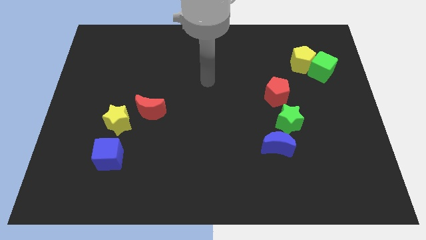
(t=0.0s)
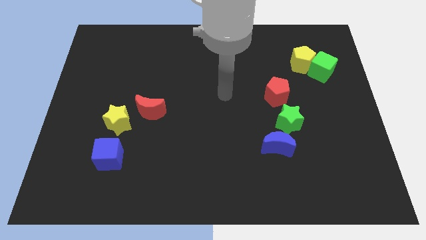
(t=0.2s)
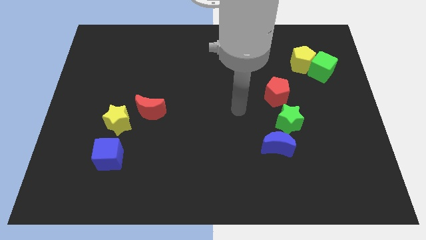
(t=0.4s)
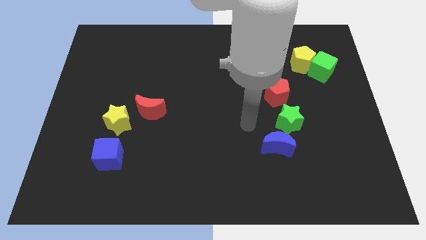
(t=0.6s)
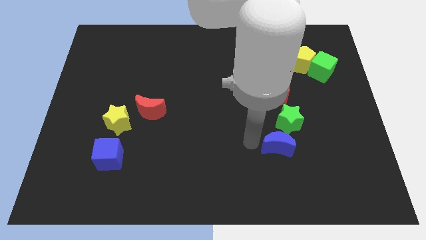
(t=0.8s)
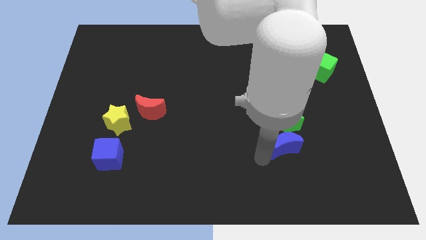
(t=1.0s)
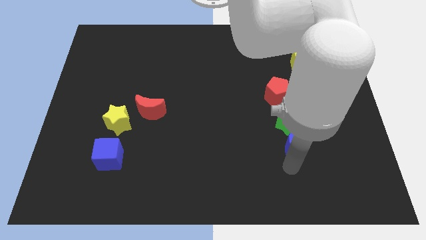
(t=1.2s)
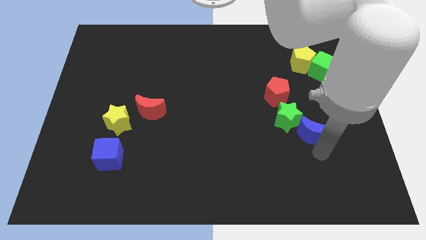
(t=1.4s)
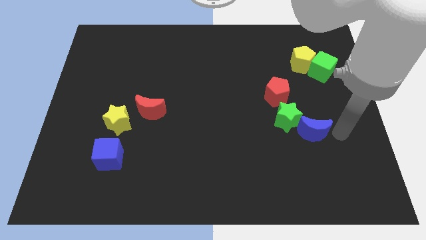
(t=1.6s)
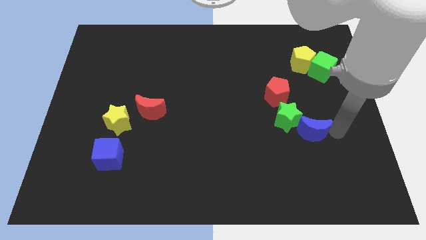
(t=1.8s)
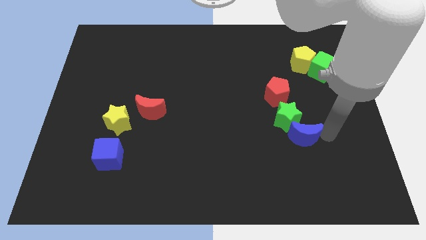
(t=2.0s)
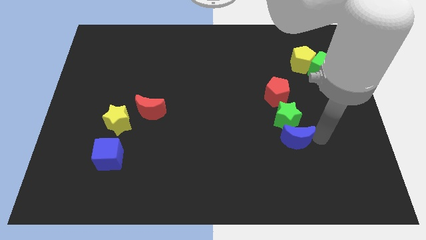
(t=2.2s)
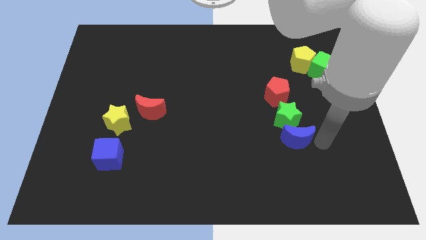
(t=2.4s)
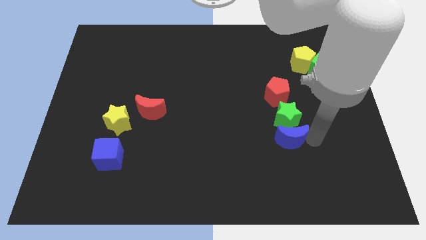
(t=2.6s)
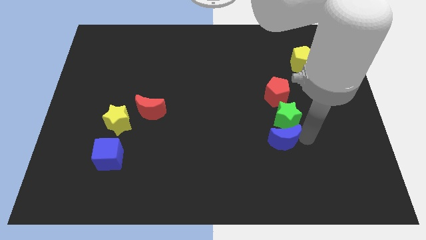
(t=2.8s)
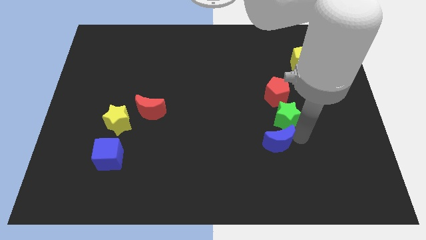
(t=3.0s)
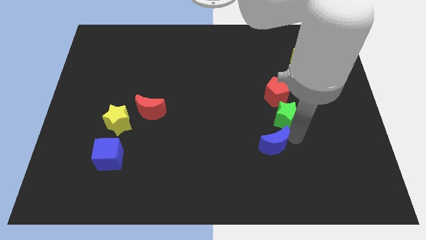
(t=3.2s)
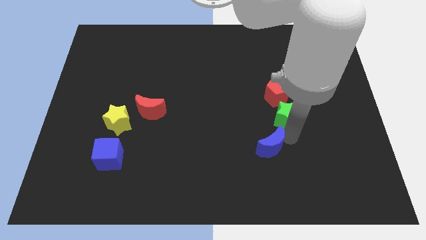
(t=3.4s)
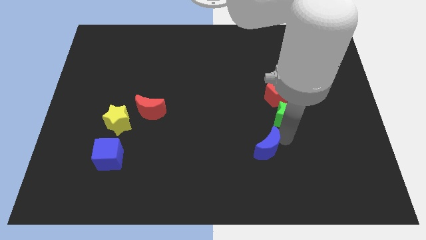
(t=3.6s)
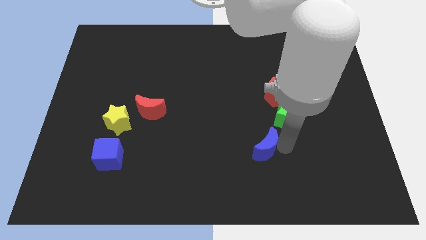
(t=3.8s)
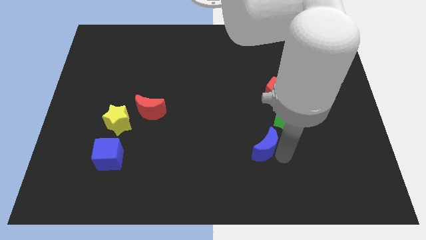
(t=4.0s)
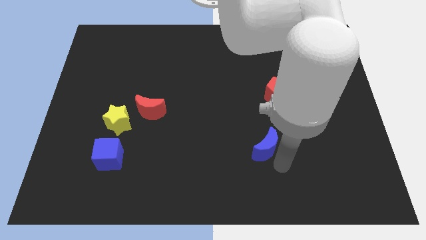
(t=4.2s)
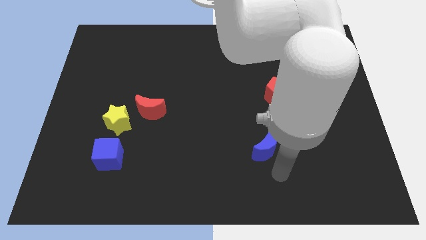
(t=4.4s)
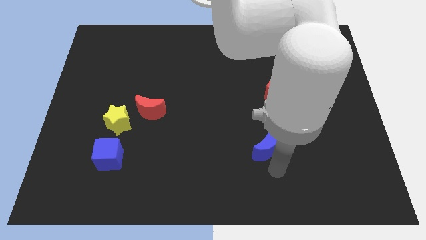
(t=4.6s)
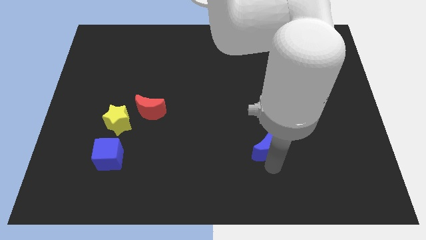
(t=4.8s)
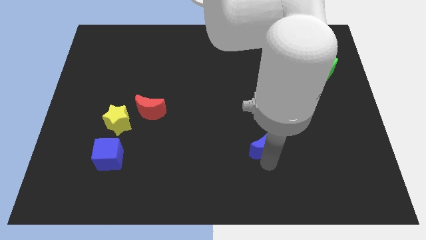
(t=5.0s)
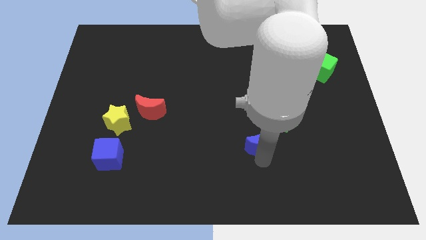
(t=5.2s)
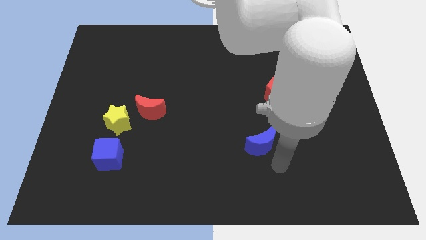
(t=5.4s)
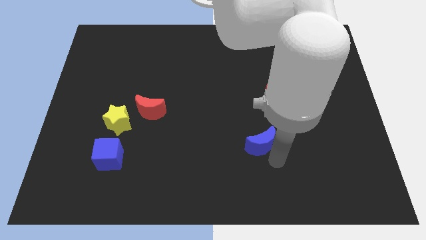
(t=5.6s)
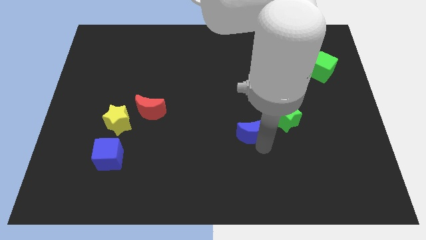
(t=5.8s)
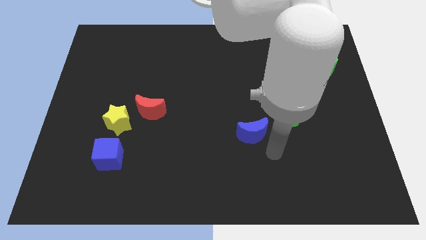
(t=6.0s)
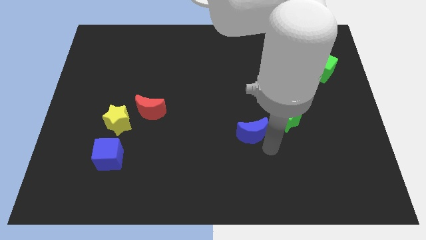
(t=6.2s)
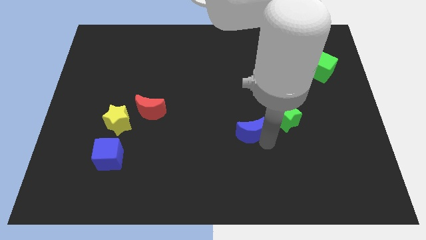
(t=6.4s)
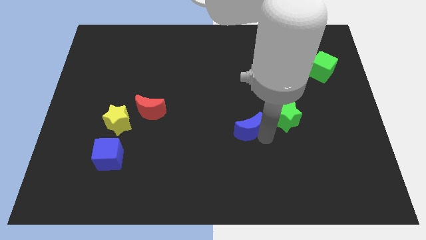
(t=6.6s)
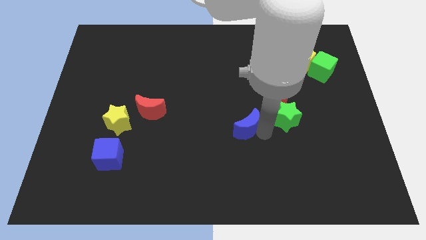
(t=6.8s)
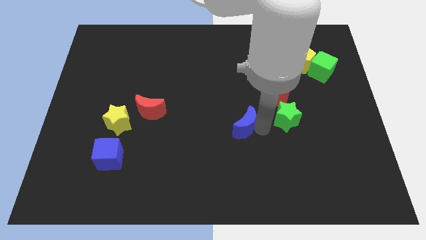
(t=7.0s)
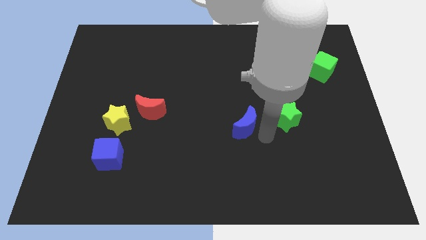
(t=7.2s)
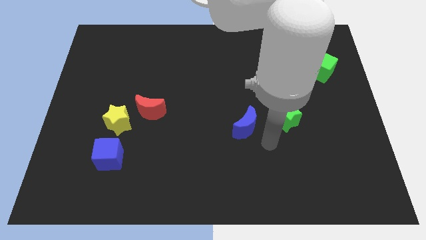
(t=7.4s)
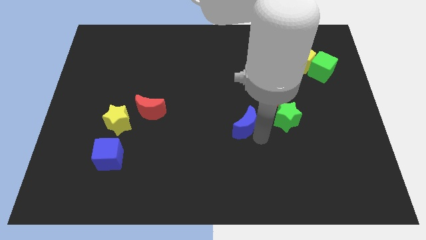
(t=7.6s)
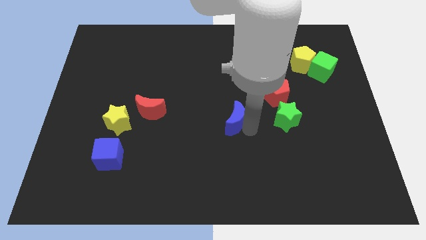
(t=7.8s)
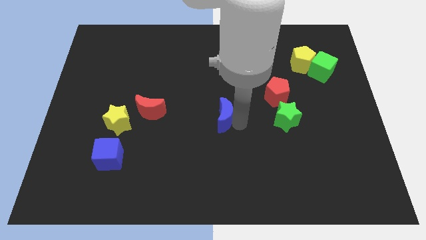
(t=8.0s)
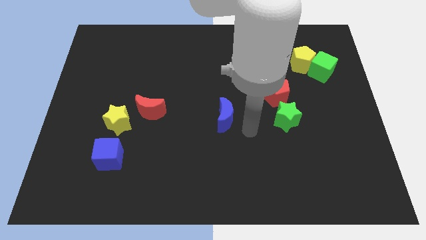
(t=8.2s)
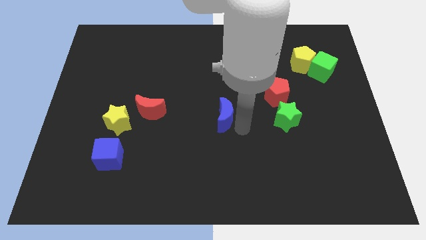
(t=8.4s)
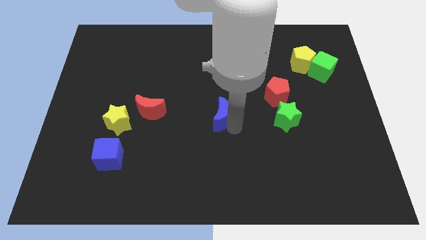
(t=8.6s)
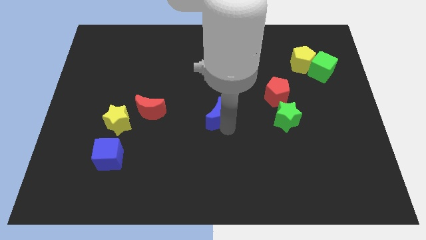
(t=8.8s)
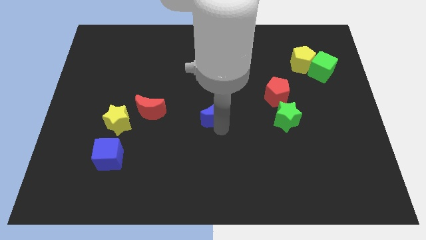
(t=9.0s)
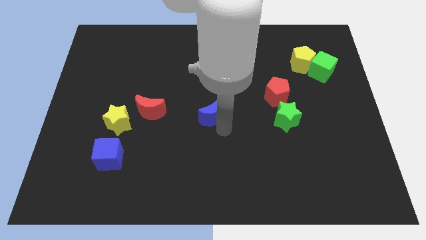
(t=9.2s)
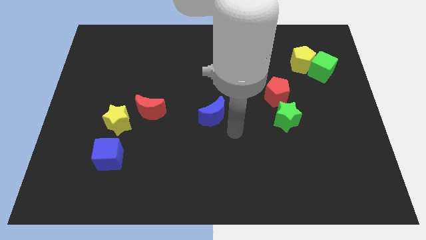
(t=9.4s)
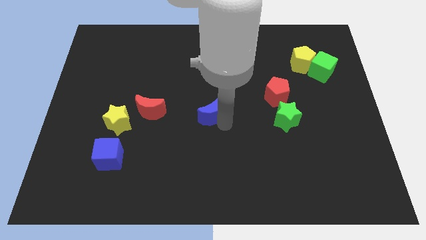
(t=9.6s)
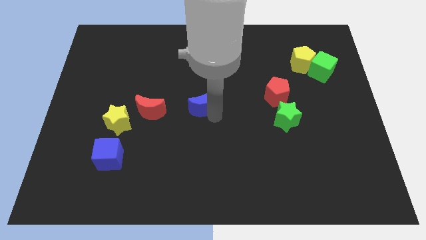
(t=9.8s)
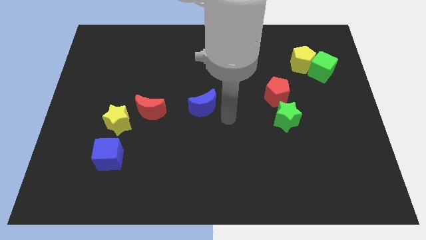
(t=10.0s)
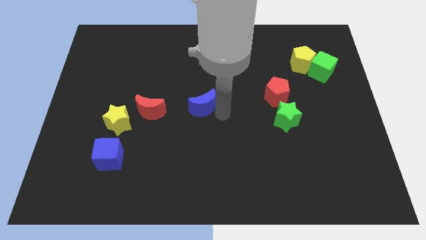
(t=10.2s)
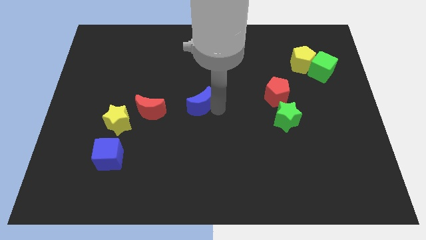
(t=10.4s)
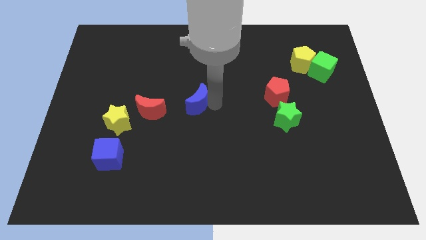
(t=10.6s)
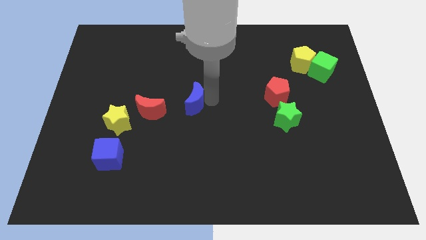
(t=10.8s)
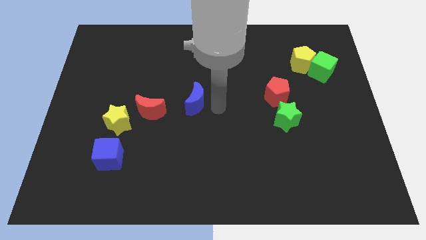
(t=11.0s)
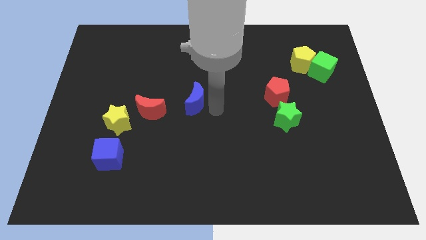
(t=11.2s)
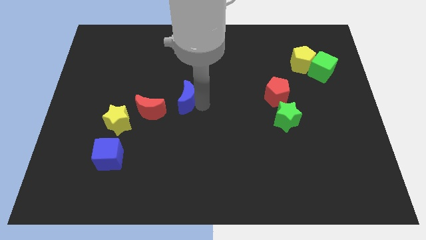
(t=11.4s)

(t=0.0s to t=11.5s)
push the blue moon to the top right of the red moon

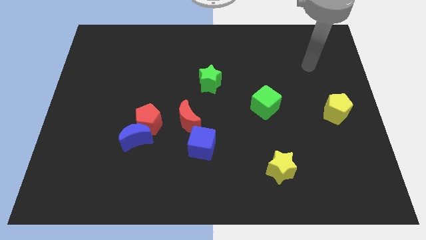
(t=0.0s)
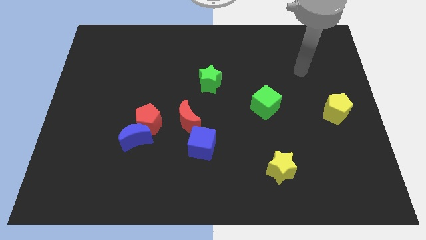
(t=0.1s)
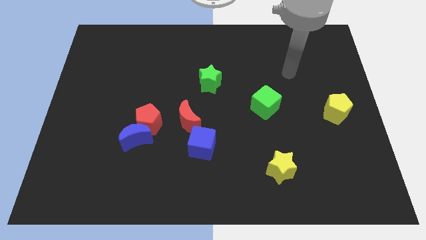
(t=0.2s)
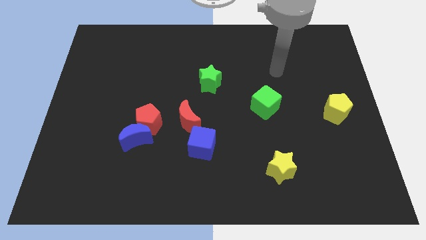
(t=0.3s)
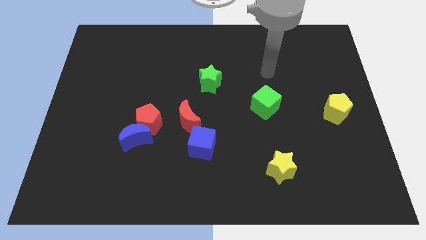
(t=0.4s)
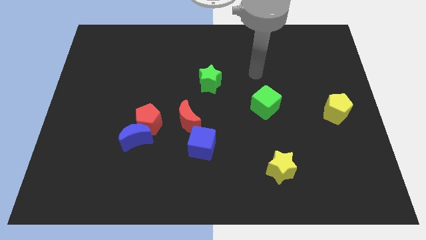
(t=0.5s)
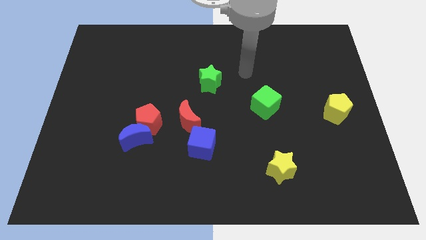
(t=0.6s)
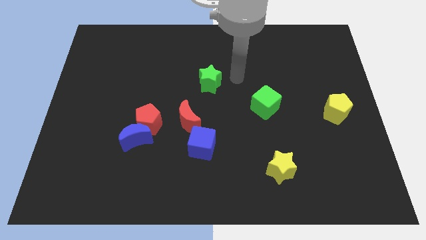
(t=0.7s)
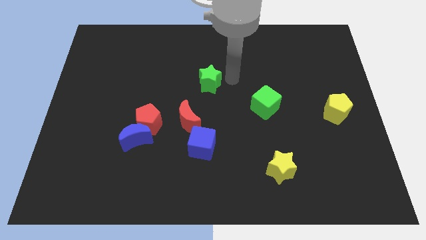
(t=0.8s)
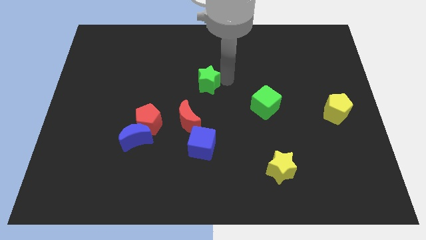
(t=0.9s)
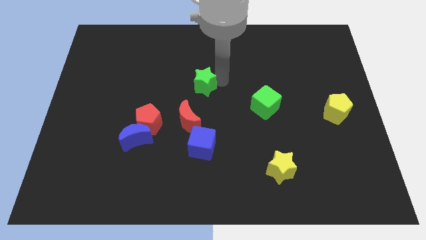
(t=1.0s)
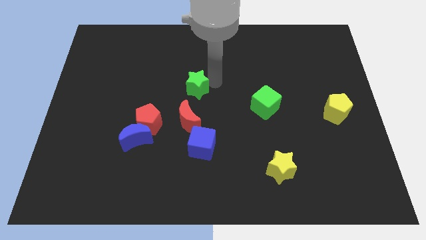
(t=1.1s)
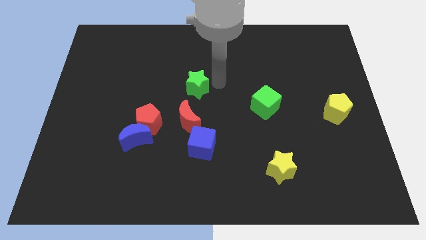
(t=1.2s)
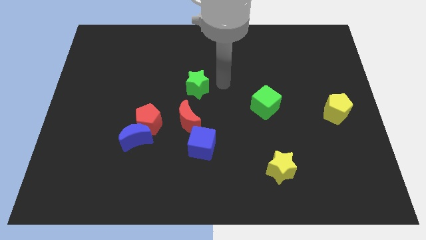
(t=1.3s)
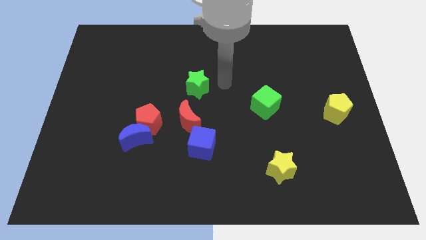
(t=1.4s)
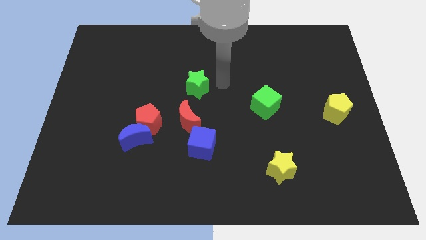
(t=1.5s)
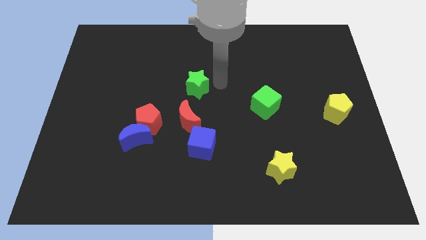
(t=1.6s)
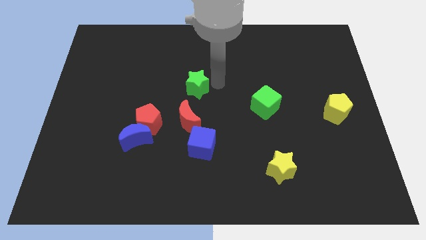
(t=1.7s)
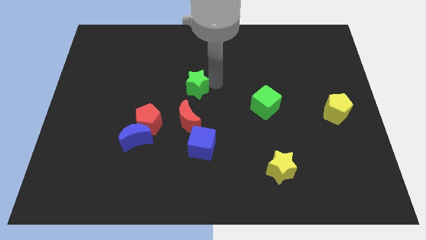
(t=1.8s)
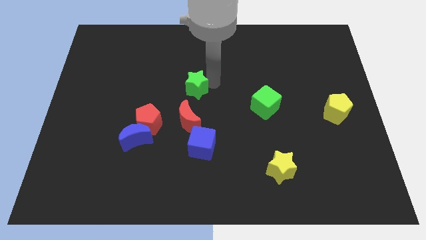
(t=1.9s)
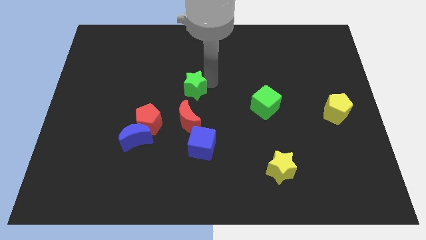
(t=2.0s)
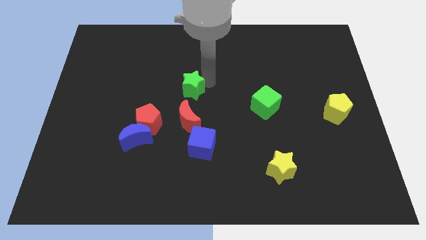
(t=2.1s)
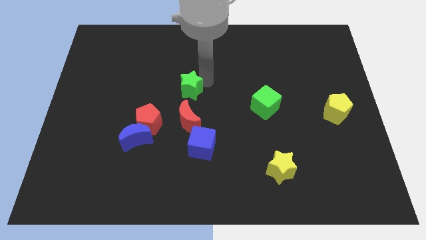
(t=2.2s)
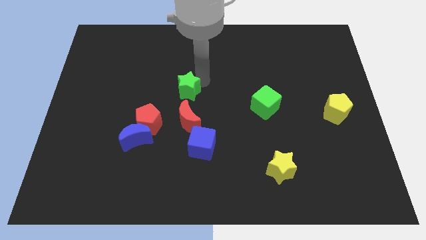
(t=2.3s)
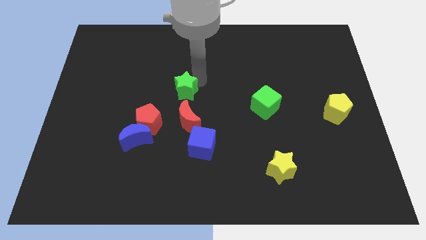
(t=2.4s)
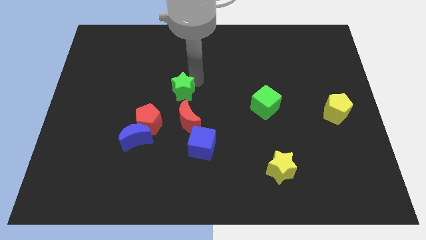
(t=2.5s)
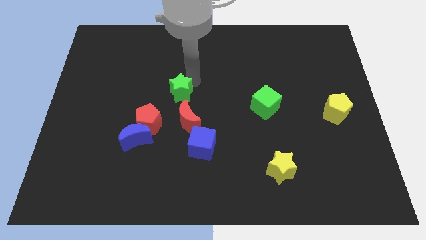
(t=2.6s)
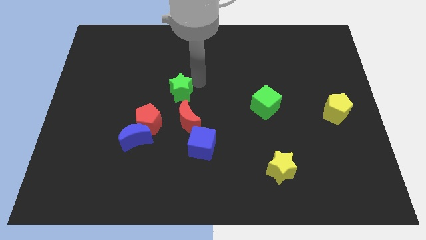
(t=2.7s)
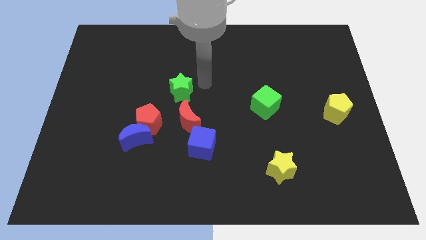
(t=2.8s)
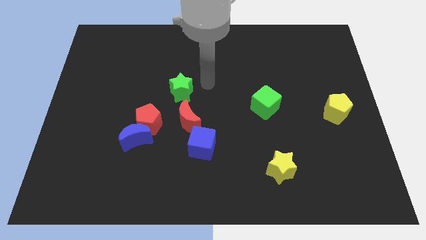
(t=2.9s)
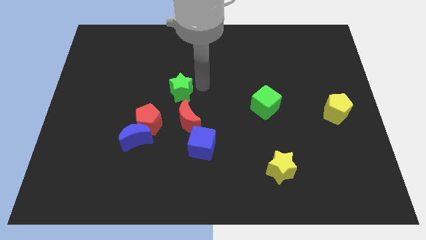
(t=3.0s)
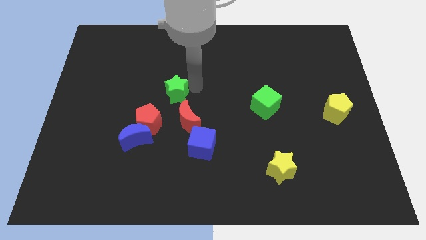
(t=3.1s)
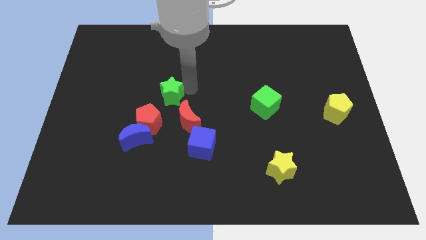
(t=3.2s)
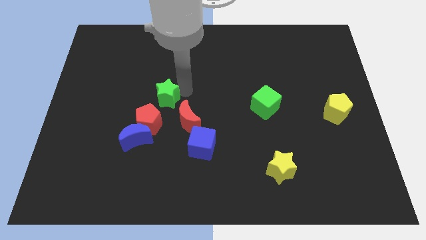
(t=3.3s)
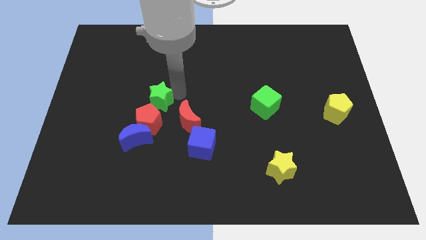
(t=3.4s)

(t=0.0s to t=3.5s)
put the green star to the top side of the blue moon
